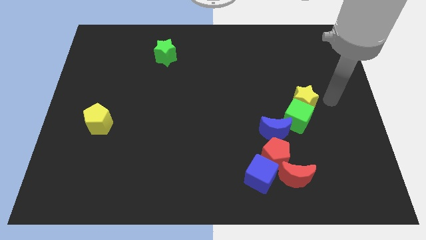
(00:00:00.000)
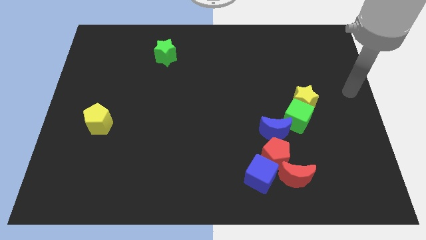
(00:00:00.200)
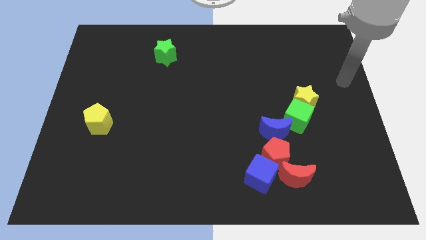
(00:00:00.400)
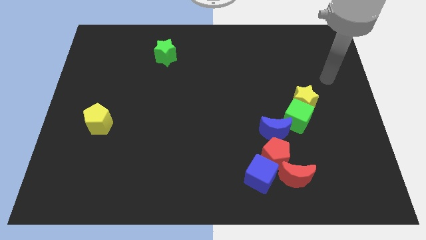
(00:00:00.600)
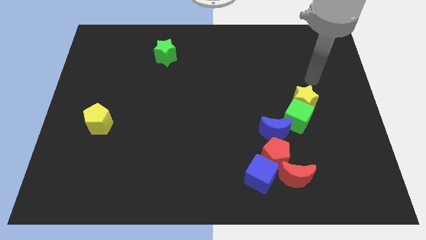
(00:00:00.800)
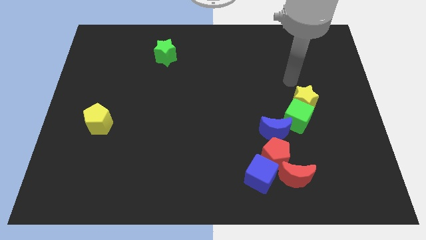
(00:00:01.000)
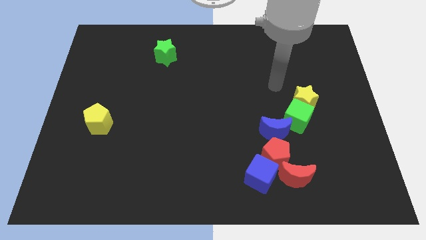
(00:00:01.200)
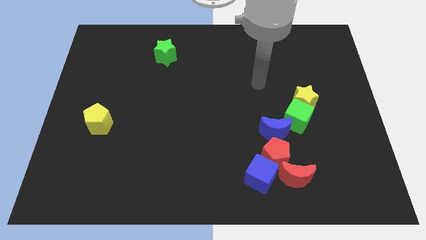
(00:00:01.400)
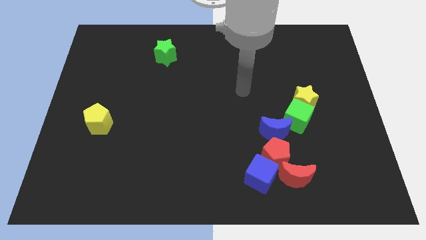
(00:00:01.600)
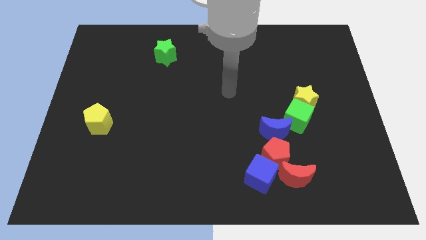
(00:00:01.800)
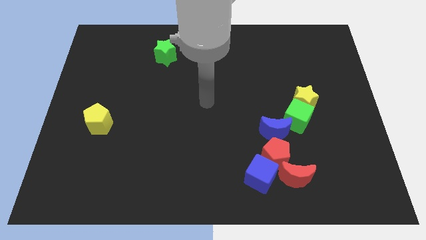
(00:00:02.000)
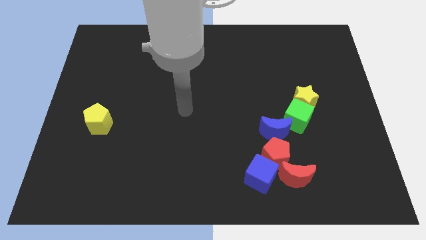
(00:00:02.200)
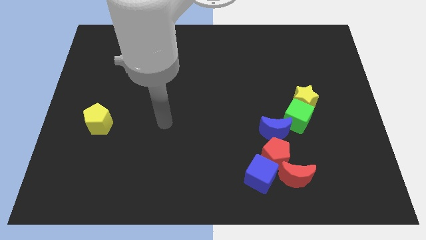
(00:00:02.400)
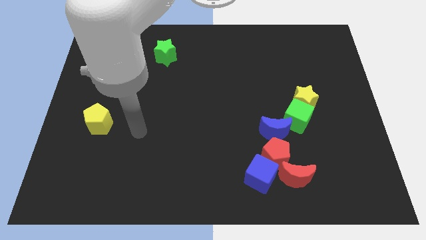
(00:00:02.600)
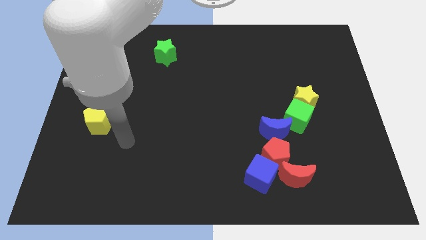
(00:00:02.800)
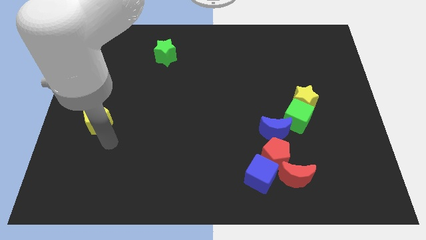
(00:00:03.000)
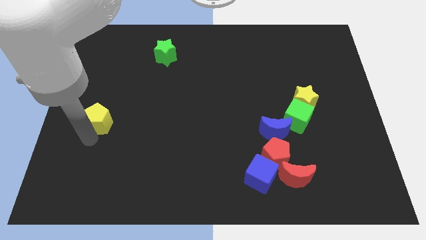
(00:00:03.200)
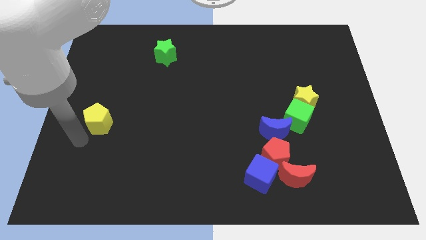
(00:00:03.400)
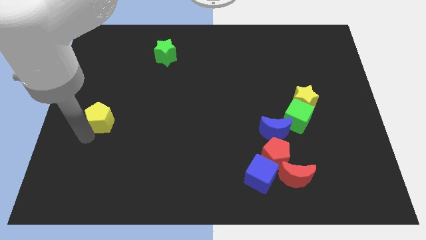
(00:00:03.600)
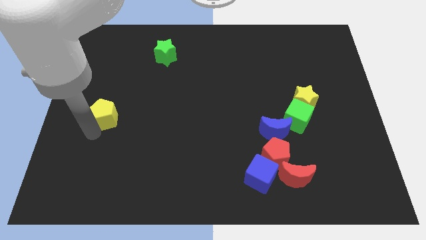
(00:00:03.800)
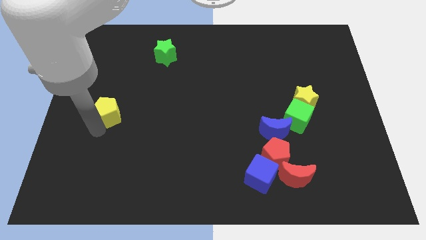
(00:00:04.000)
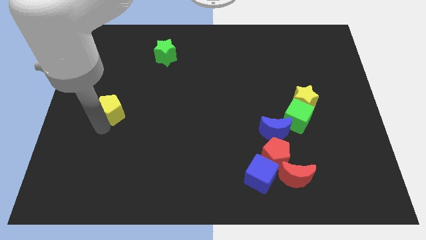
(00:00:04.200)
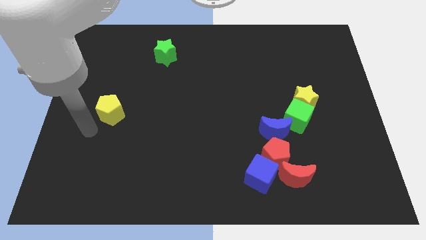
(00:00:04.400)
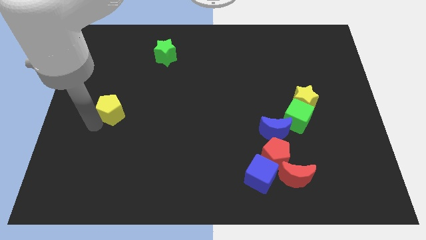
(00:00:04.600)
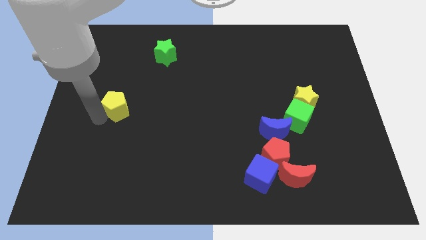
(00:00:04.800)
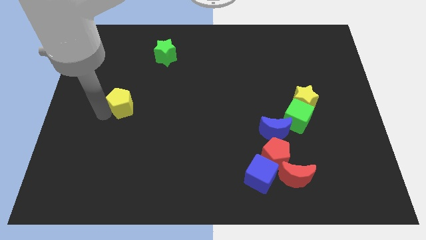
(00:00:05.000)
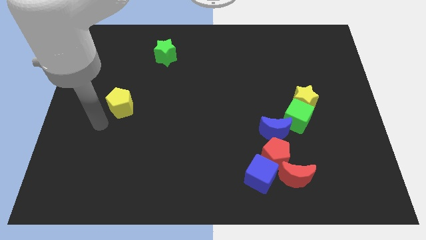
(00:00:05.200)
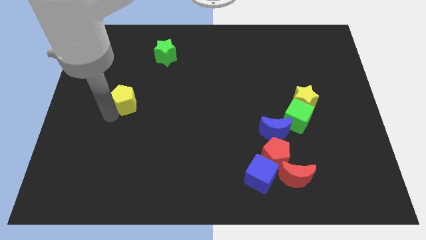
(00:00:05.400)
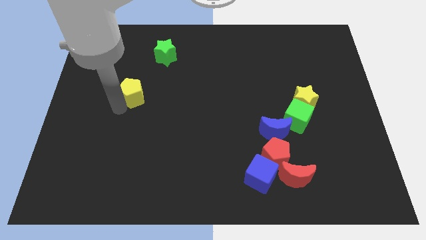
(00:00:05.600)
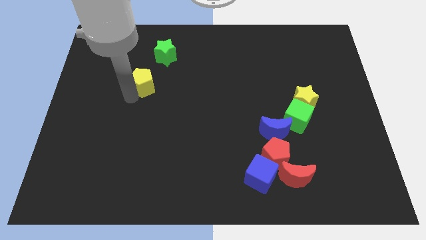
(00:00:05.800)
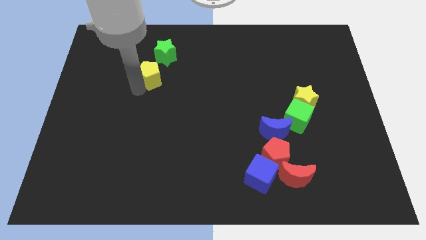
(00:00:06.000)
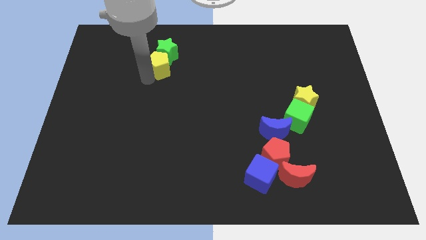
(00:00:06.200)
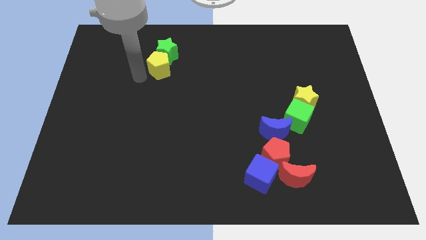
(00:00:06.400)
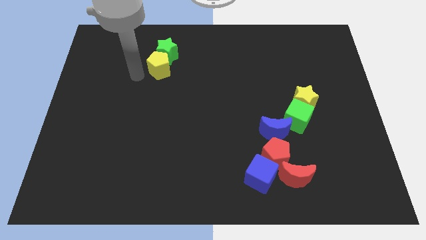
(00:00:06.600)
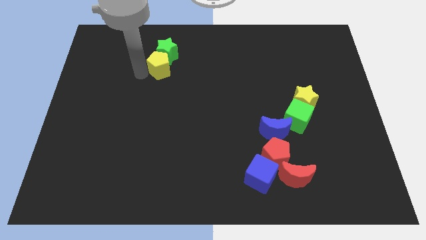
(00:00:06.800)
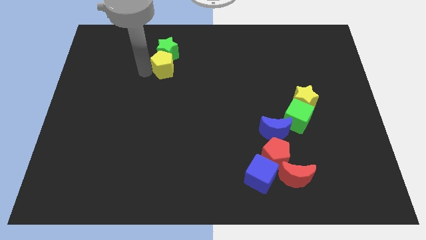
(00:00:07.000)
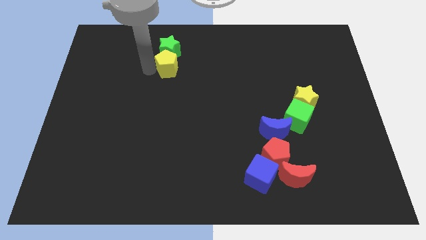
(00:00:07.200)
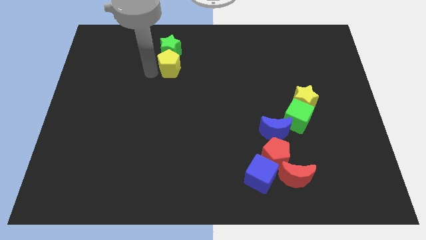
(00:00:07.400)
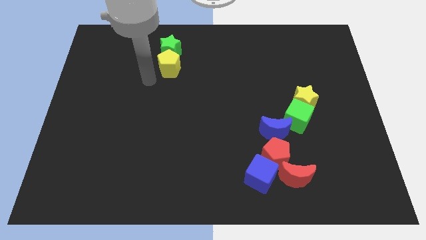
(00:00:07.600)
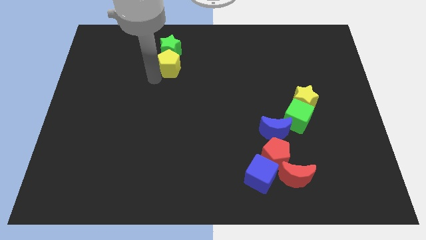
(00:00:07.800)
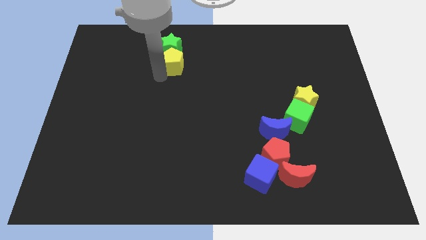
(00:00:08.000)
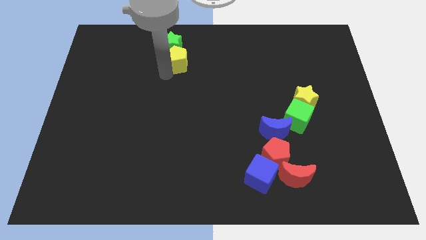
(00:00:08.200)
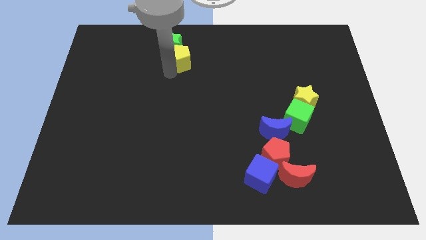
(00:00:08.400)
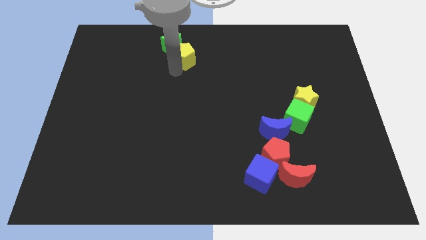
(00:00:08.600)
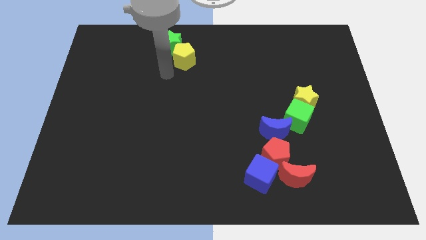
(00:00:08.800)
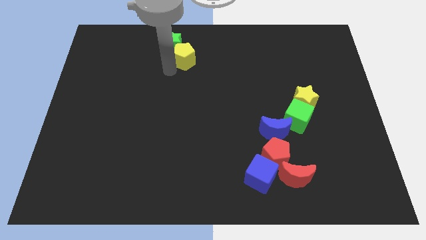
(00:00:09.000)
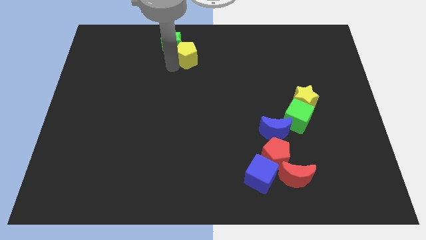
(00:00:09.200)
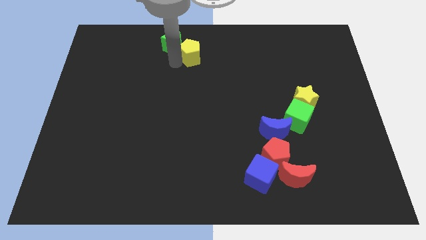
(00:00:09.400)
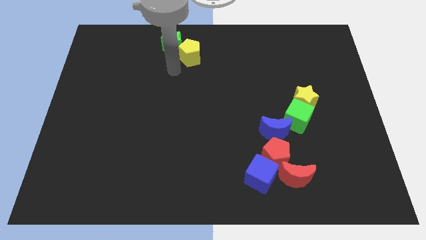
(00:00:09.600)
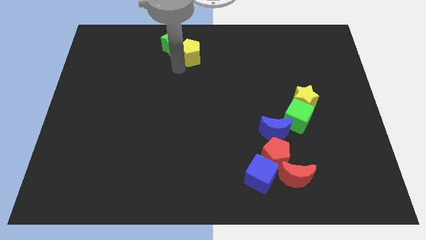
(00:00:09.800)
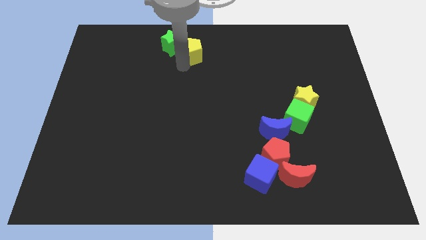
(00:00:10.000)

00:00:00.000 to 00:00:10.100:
move the yellow pentagon to the top
